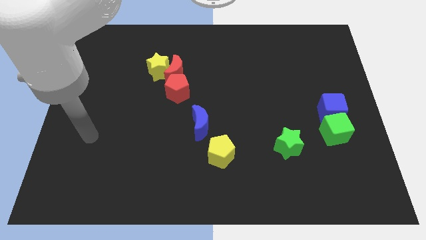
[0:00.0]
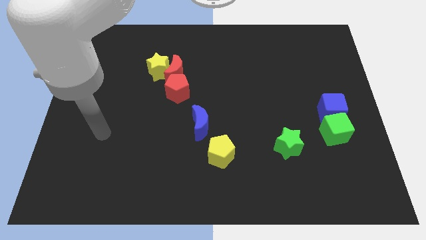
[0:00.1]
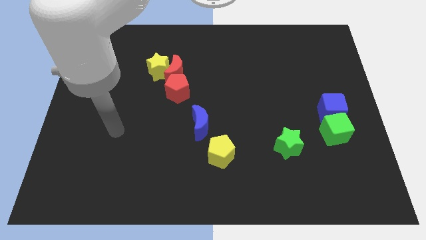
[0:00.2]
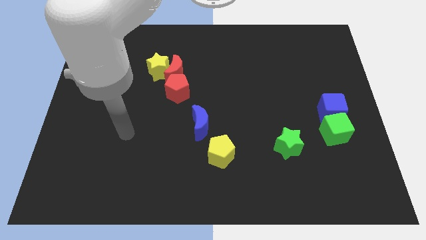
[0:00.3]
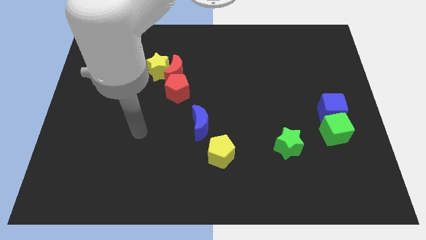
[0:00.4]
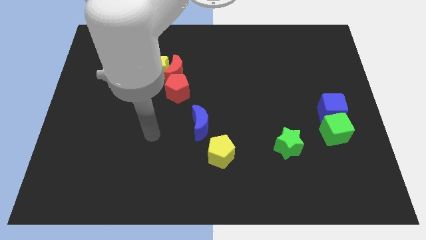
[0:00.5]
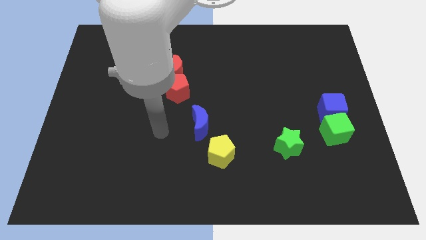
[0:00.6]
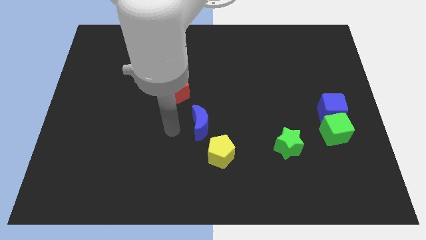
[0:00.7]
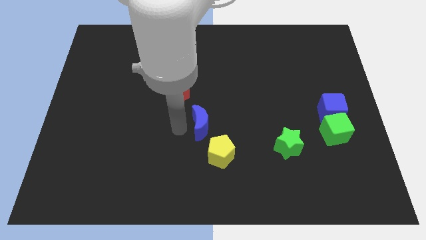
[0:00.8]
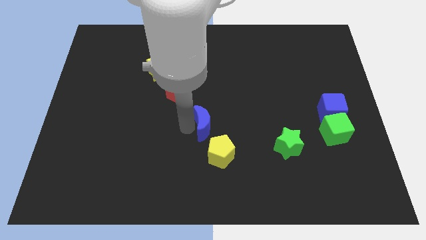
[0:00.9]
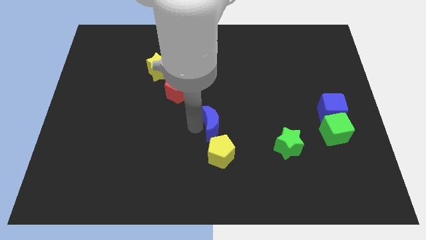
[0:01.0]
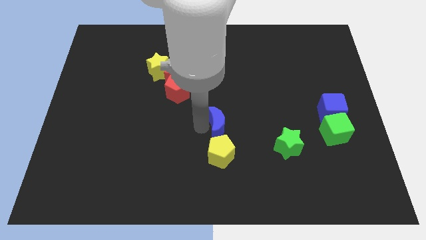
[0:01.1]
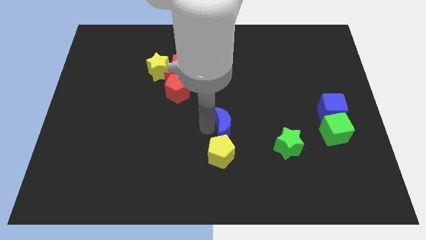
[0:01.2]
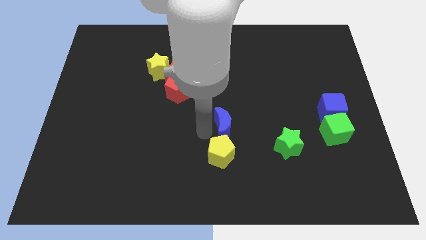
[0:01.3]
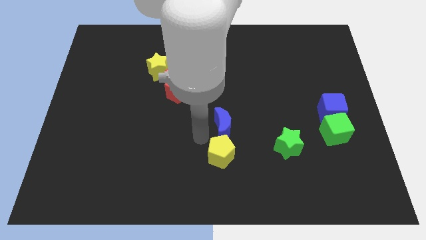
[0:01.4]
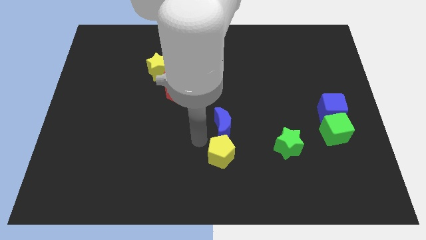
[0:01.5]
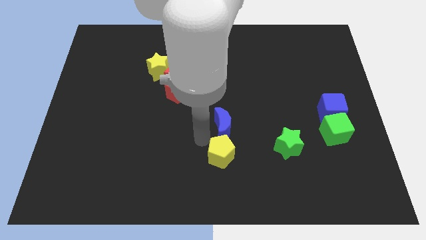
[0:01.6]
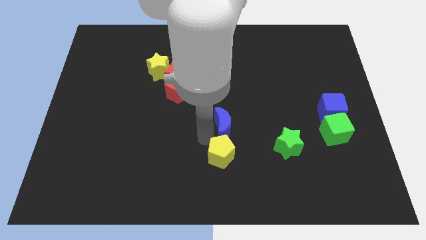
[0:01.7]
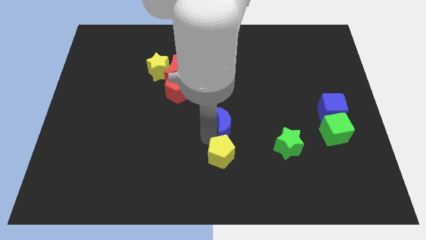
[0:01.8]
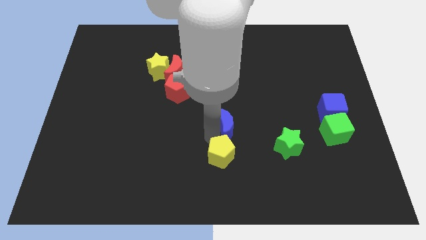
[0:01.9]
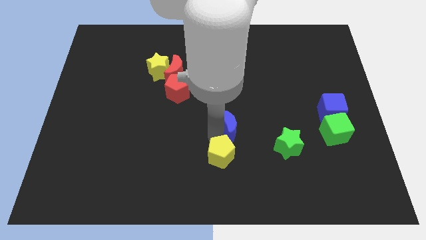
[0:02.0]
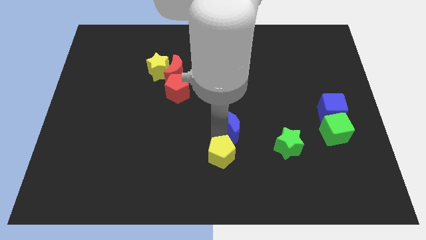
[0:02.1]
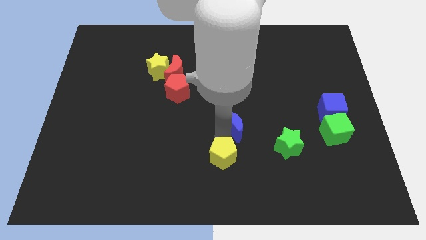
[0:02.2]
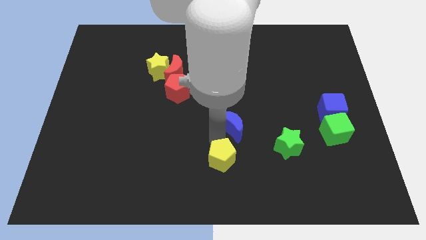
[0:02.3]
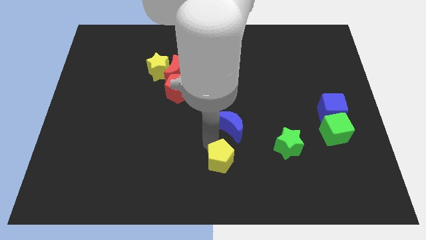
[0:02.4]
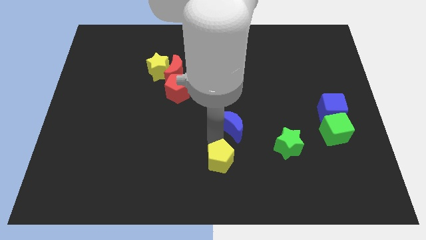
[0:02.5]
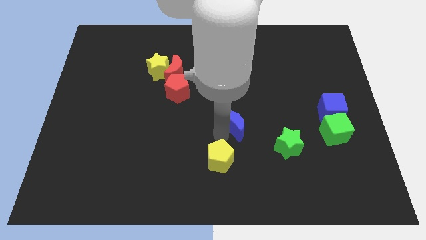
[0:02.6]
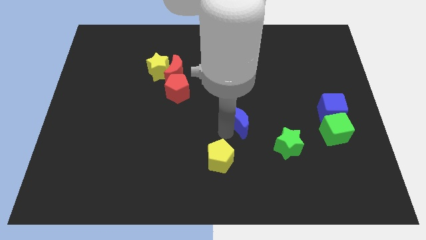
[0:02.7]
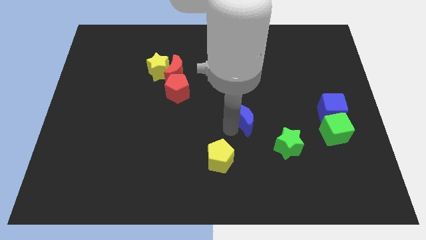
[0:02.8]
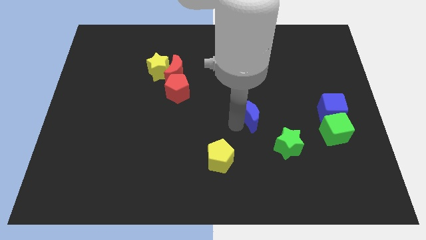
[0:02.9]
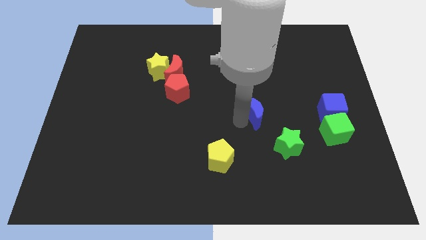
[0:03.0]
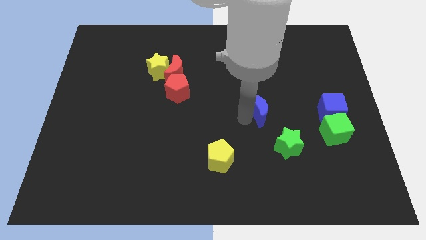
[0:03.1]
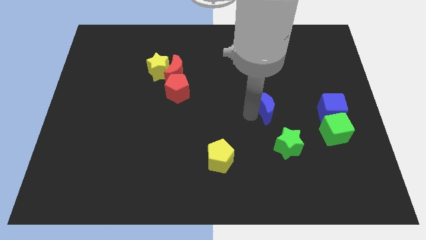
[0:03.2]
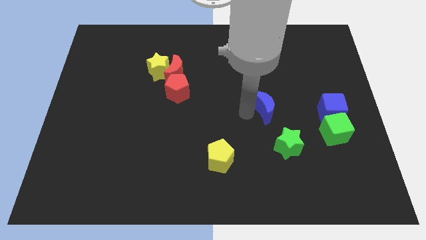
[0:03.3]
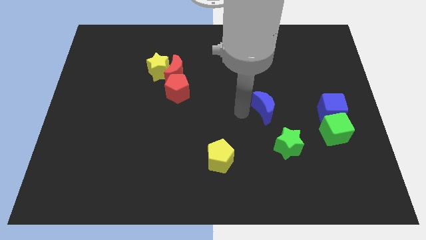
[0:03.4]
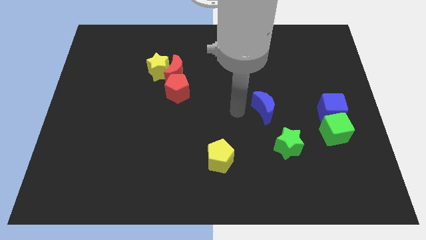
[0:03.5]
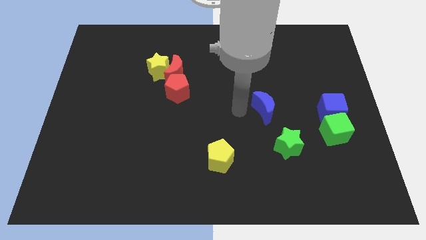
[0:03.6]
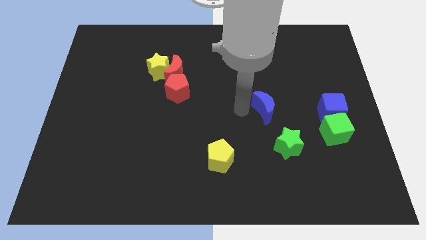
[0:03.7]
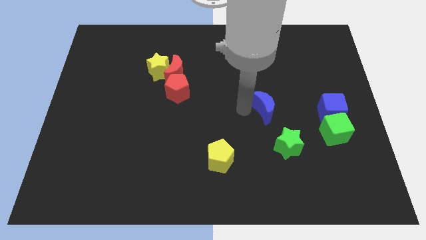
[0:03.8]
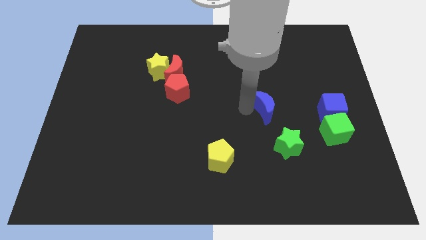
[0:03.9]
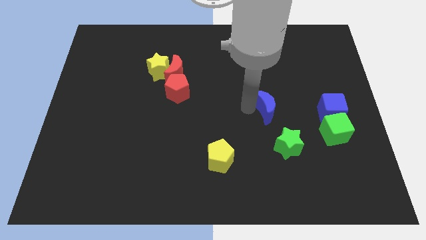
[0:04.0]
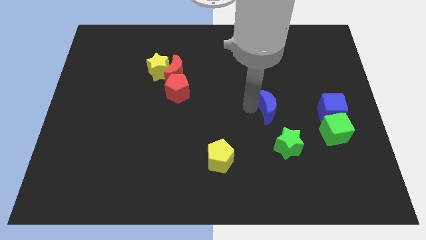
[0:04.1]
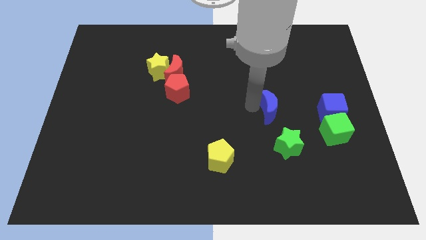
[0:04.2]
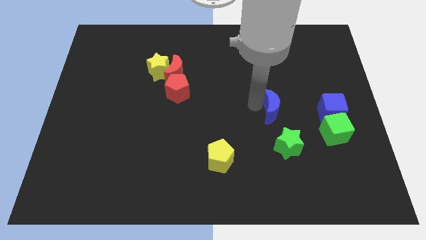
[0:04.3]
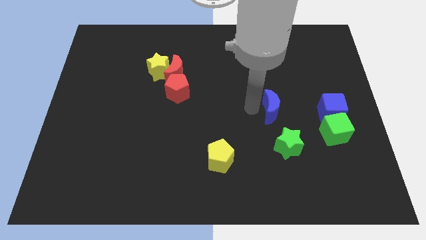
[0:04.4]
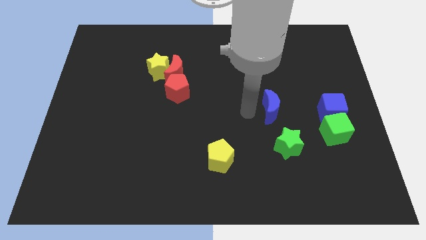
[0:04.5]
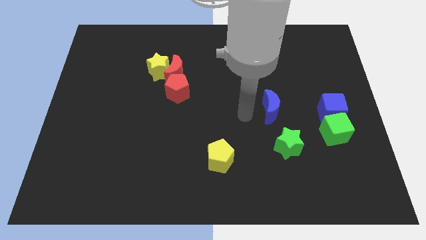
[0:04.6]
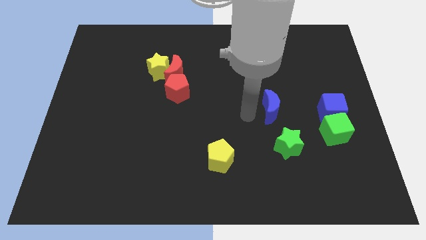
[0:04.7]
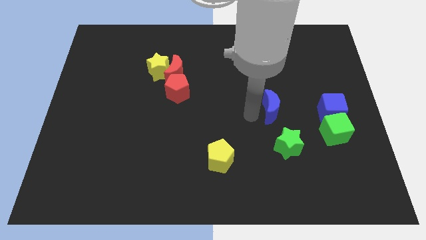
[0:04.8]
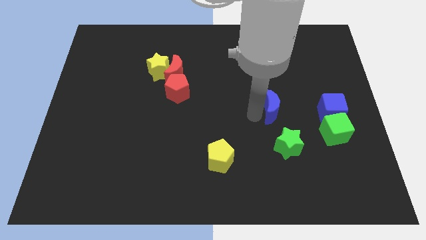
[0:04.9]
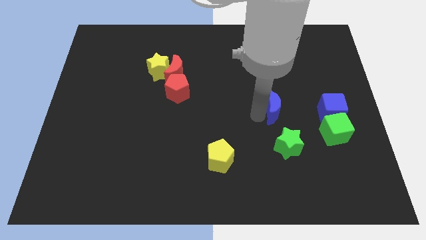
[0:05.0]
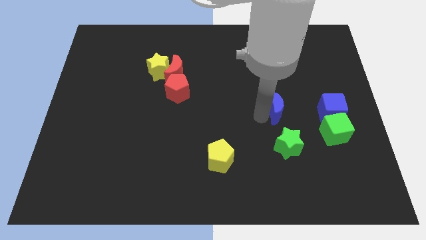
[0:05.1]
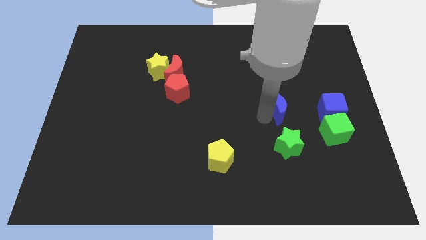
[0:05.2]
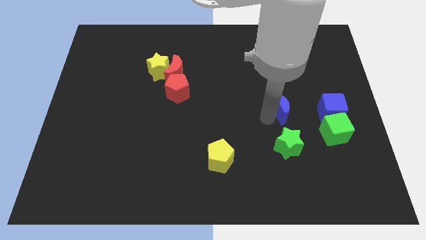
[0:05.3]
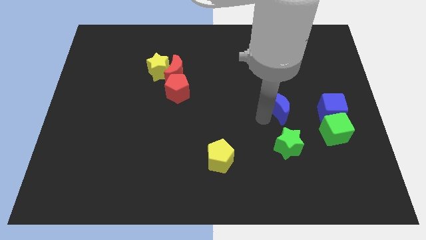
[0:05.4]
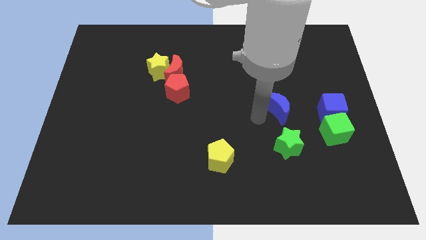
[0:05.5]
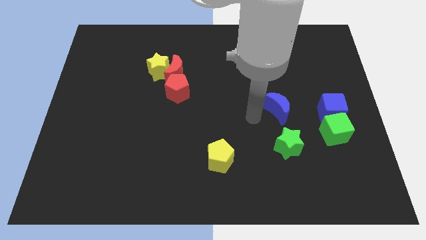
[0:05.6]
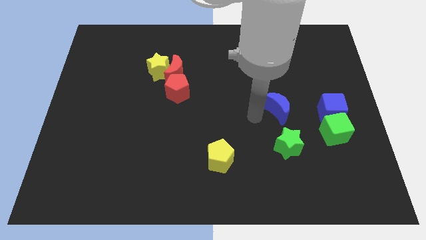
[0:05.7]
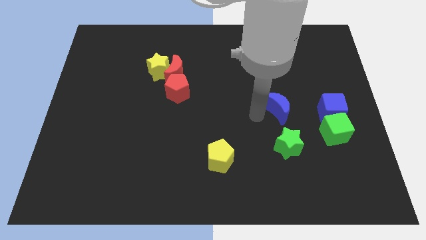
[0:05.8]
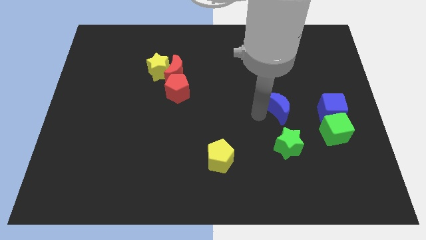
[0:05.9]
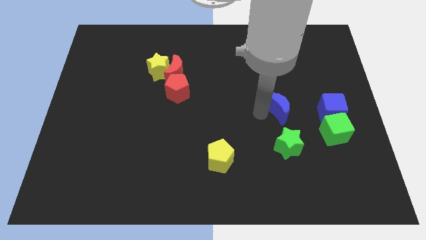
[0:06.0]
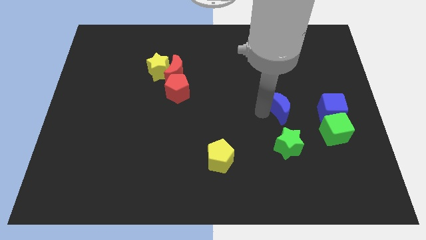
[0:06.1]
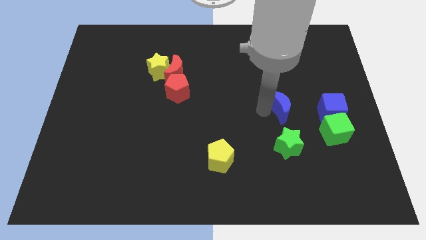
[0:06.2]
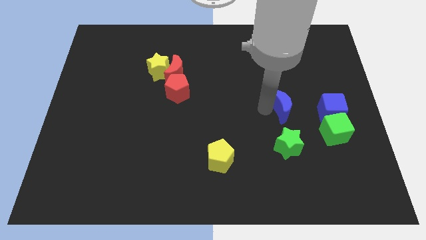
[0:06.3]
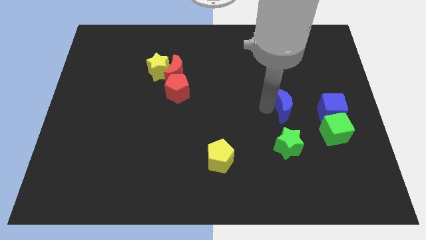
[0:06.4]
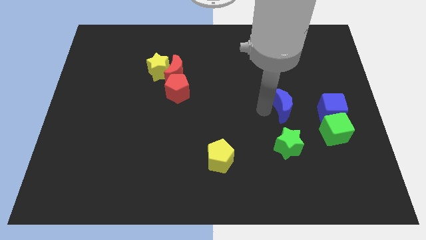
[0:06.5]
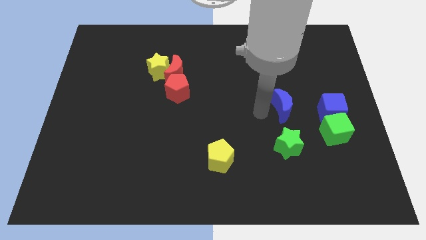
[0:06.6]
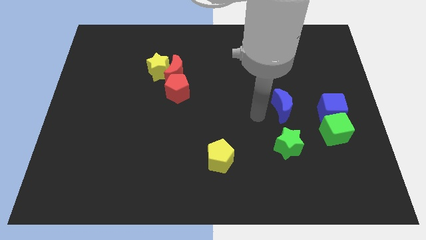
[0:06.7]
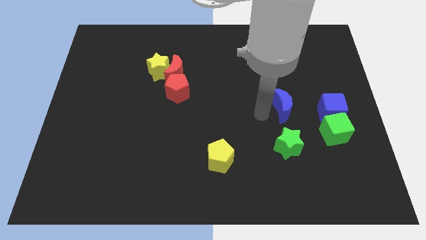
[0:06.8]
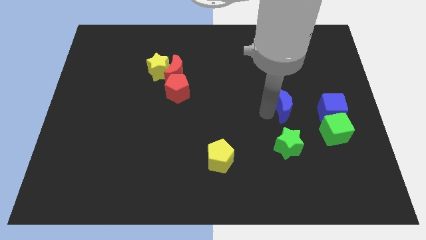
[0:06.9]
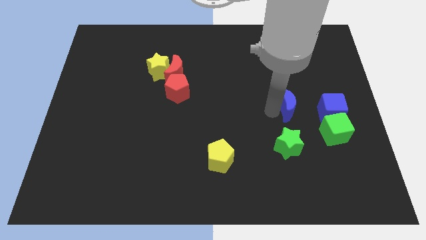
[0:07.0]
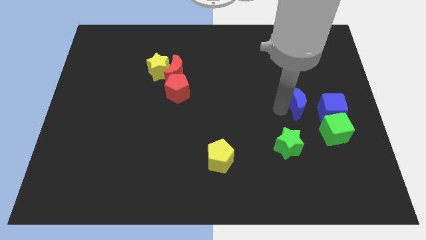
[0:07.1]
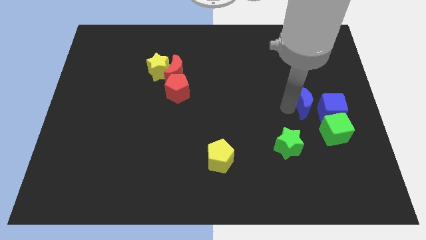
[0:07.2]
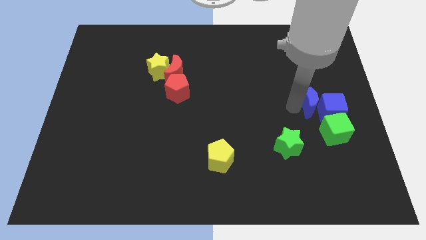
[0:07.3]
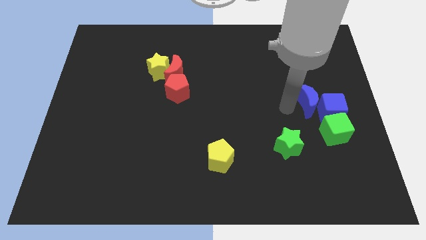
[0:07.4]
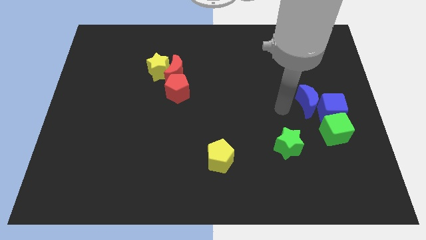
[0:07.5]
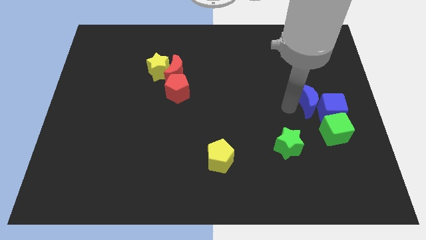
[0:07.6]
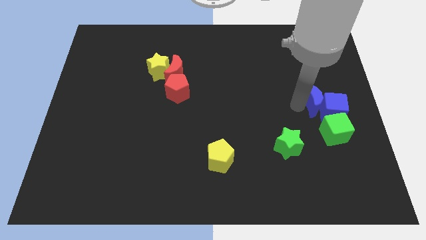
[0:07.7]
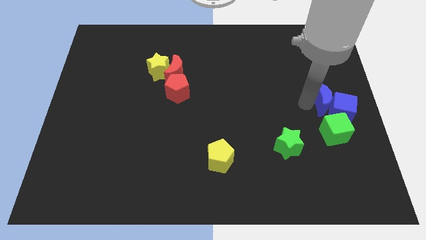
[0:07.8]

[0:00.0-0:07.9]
slide the blue moon to the right side
